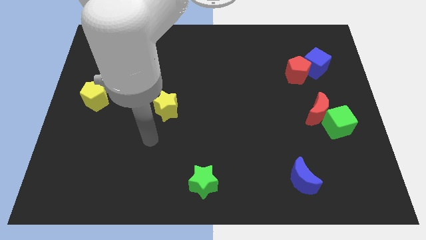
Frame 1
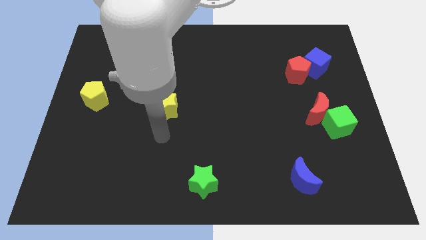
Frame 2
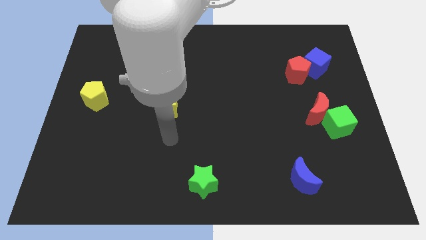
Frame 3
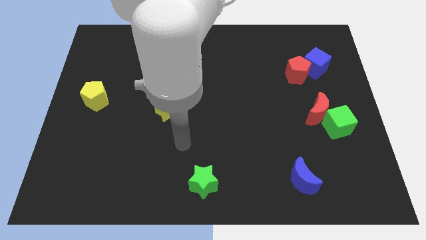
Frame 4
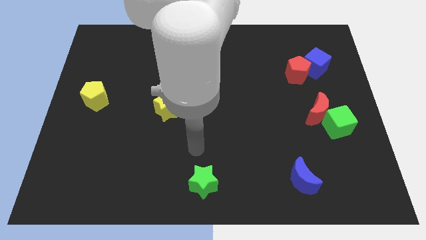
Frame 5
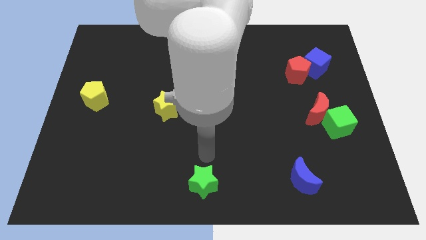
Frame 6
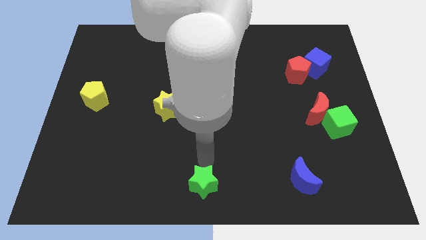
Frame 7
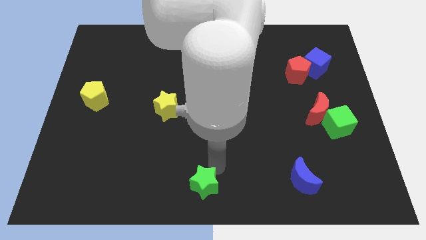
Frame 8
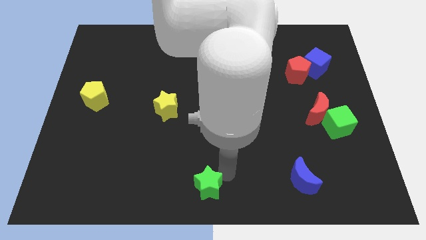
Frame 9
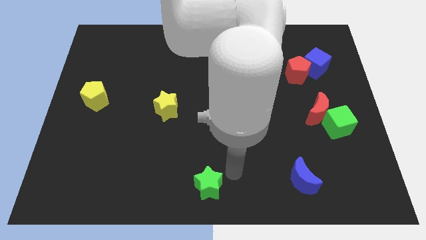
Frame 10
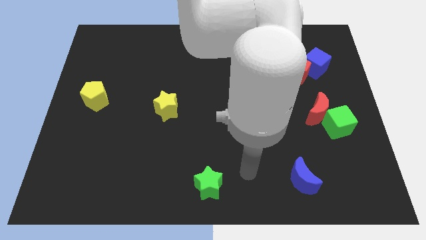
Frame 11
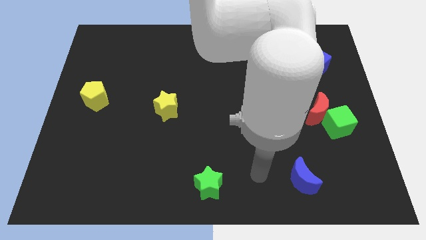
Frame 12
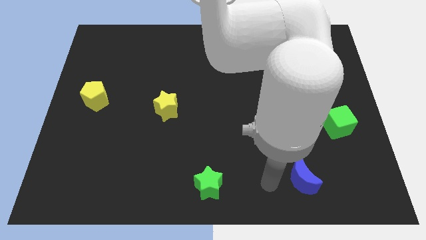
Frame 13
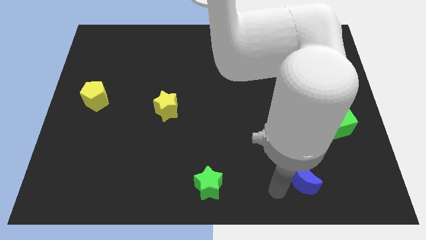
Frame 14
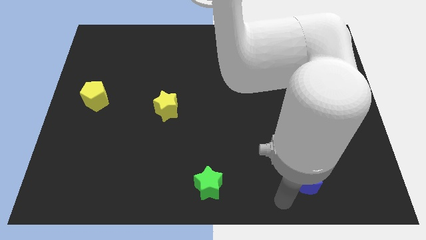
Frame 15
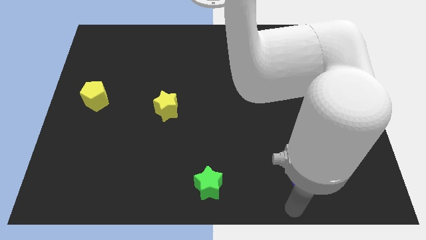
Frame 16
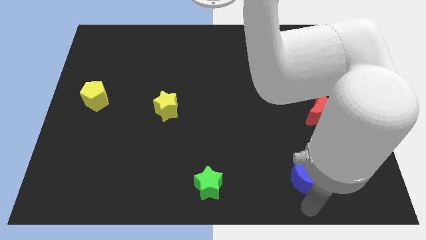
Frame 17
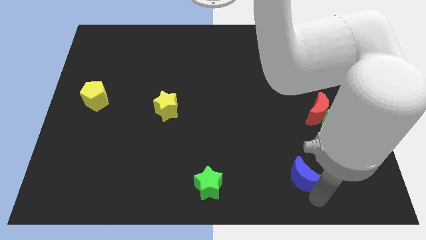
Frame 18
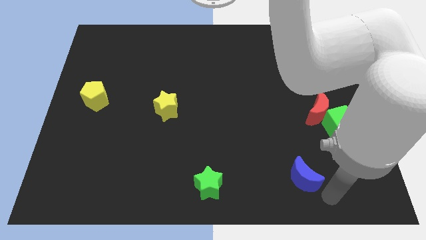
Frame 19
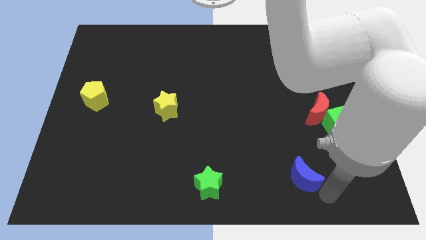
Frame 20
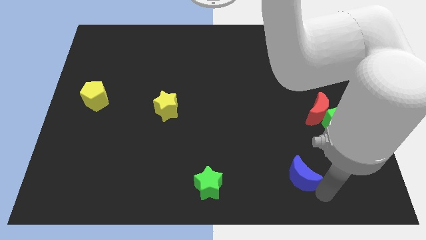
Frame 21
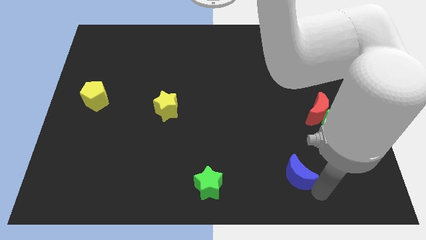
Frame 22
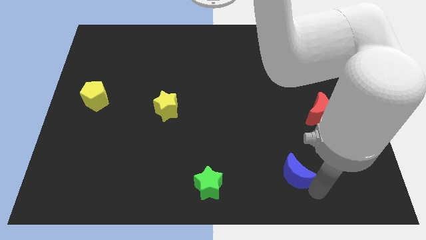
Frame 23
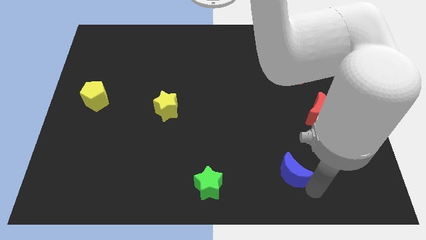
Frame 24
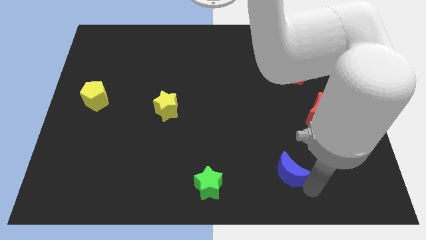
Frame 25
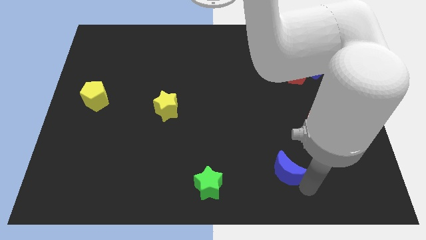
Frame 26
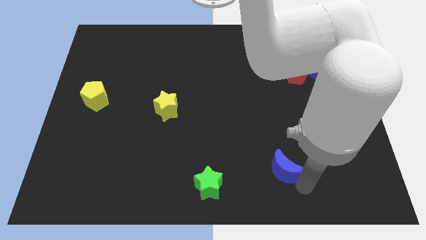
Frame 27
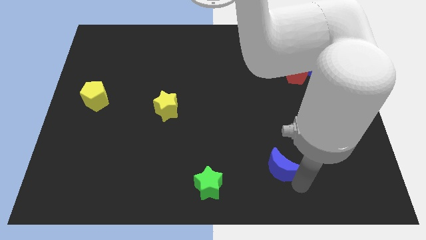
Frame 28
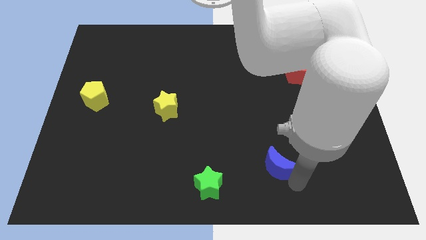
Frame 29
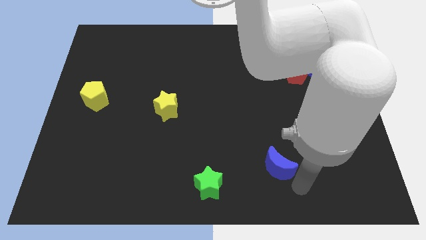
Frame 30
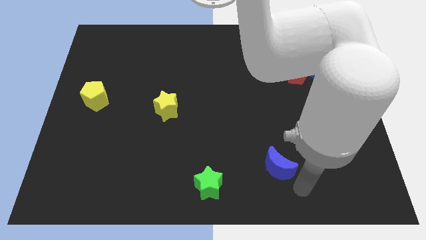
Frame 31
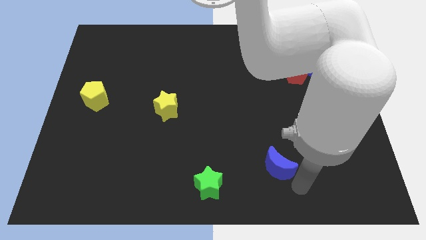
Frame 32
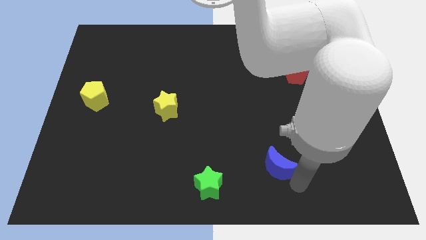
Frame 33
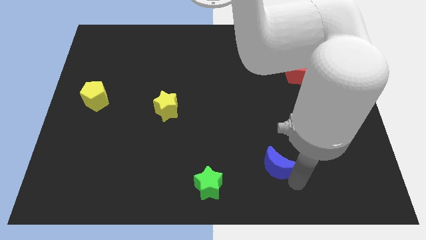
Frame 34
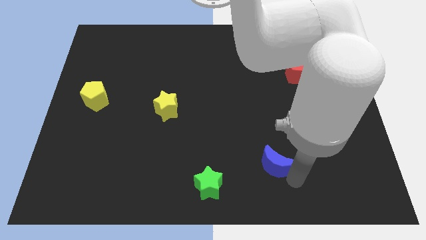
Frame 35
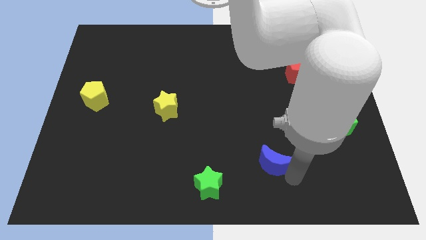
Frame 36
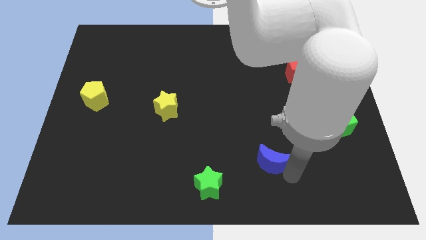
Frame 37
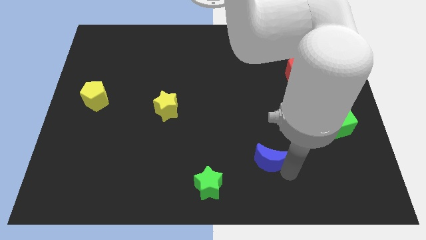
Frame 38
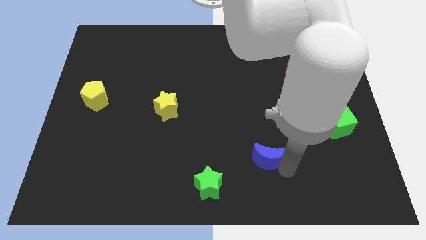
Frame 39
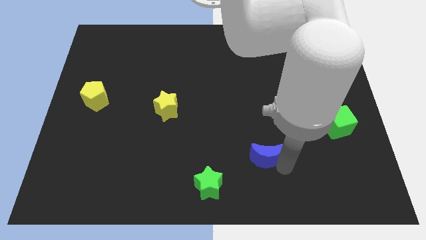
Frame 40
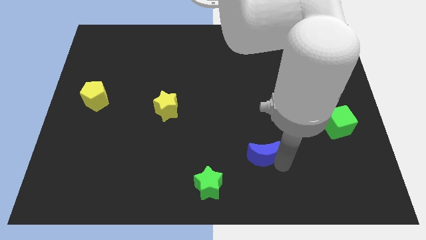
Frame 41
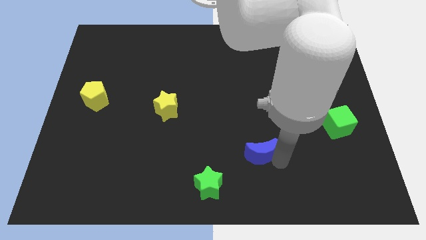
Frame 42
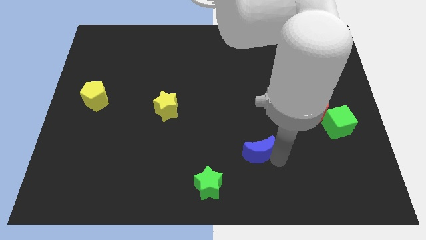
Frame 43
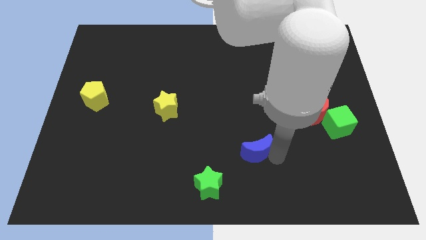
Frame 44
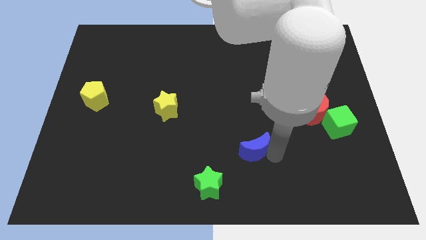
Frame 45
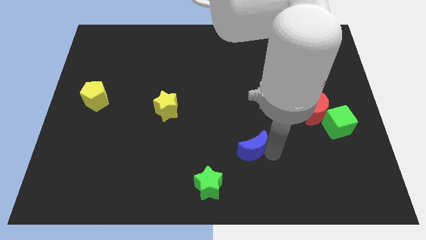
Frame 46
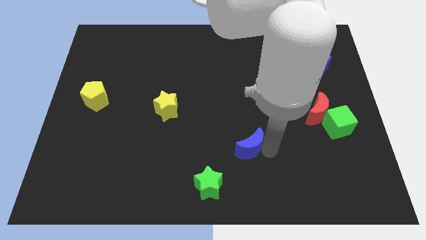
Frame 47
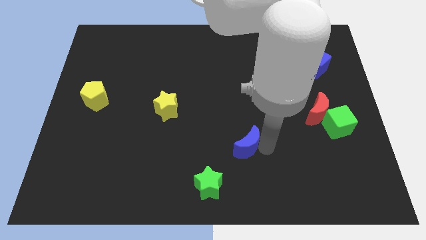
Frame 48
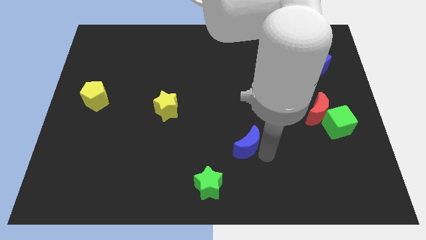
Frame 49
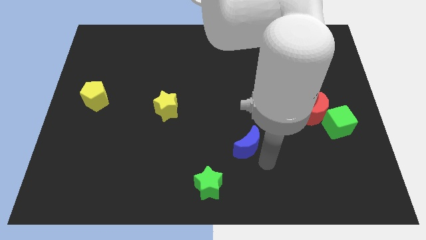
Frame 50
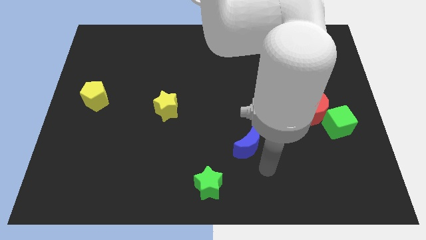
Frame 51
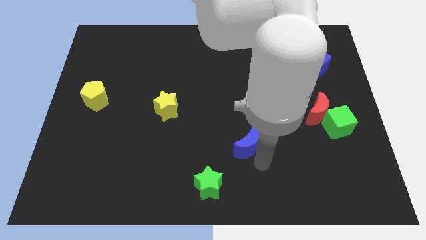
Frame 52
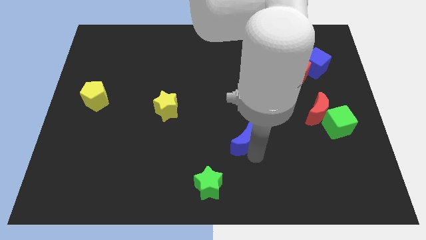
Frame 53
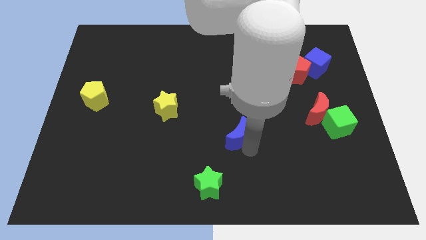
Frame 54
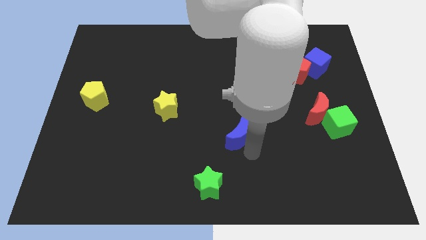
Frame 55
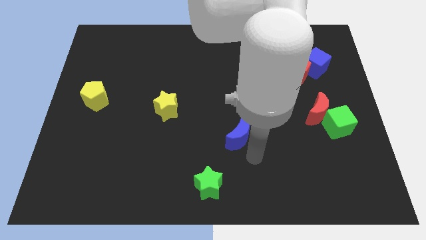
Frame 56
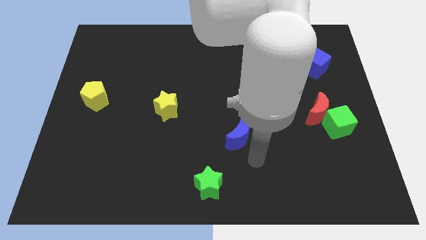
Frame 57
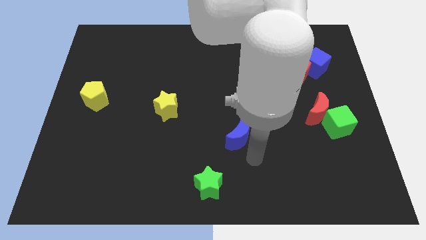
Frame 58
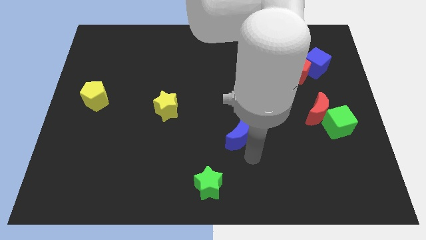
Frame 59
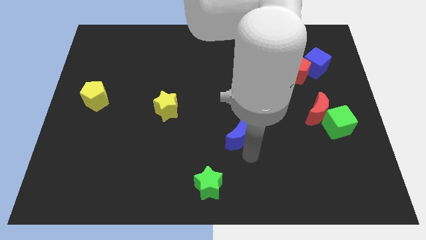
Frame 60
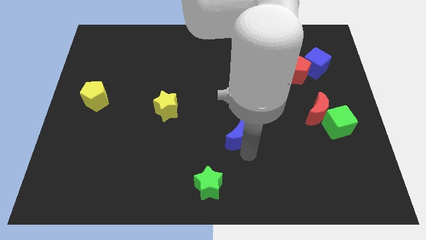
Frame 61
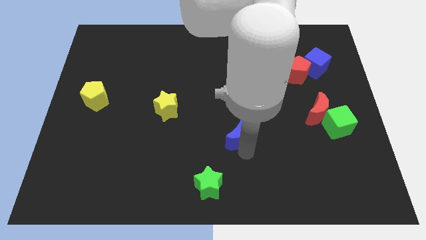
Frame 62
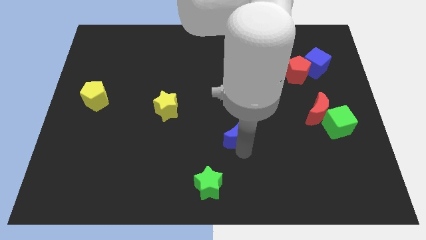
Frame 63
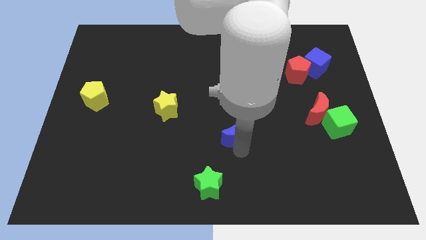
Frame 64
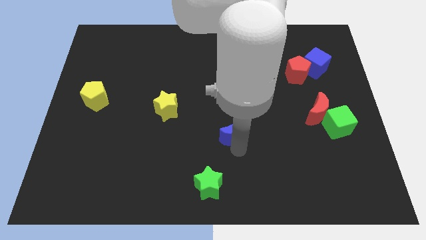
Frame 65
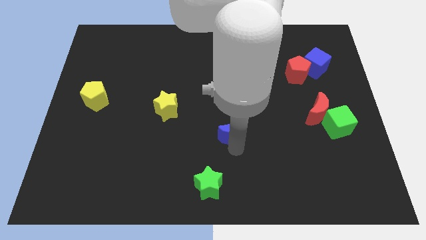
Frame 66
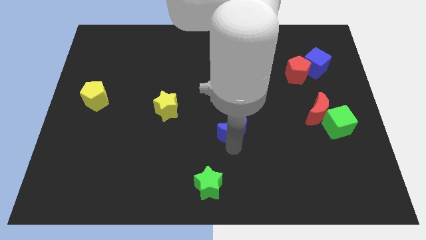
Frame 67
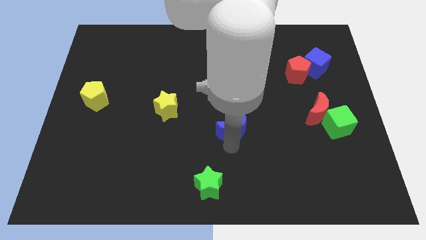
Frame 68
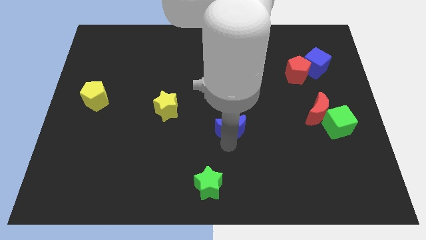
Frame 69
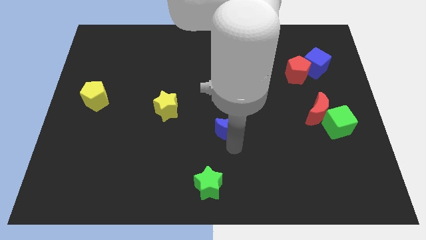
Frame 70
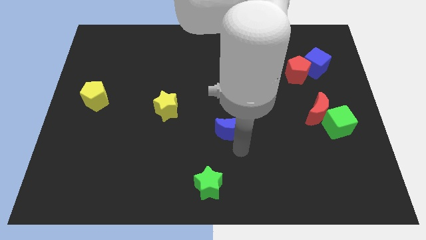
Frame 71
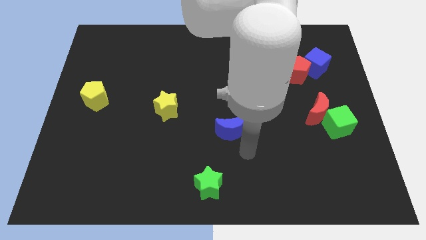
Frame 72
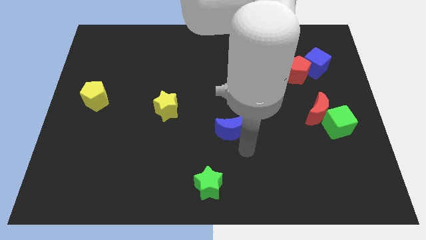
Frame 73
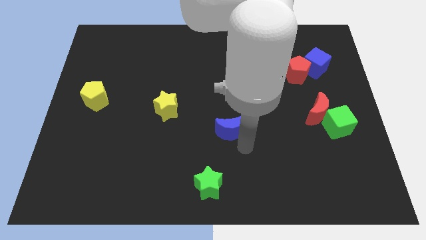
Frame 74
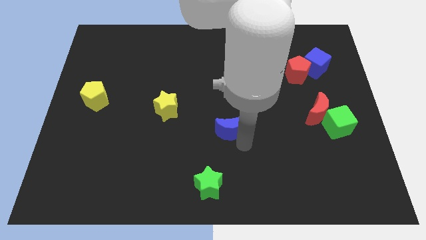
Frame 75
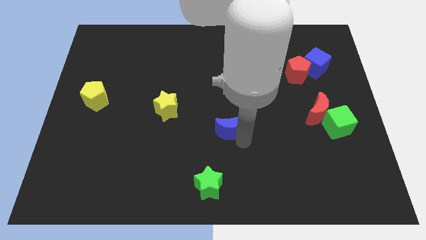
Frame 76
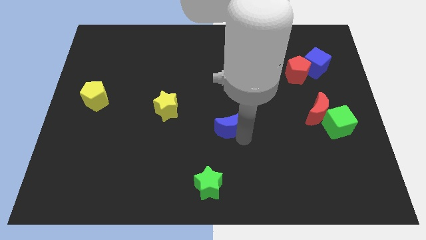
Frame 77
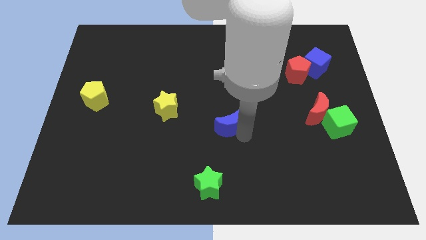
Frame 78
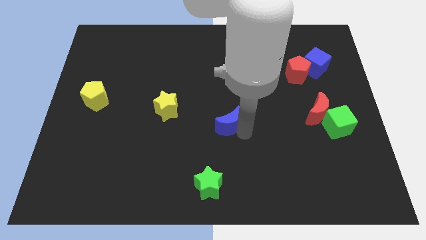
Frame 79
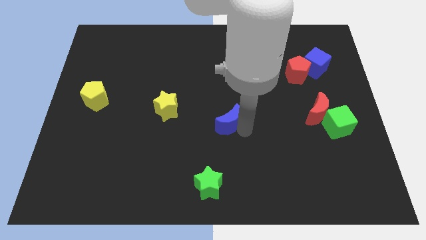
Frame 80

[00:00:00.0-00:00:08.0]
push the blue moon up and left diagonally
